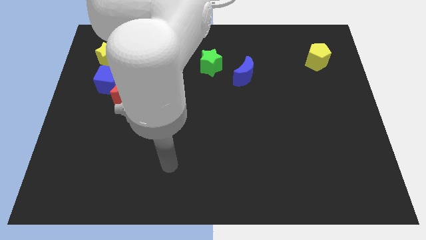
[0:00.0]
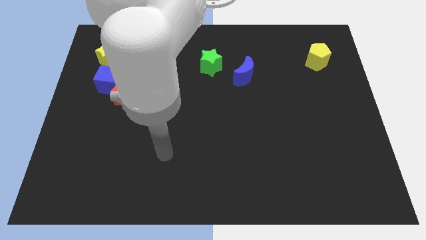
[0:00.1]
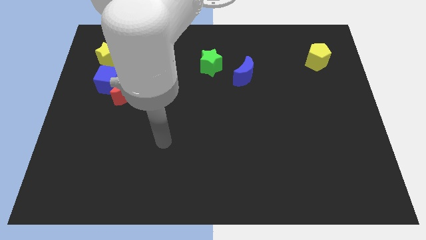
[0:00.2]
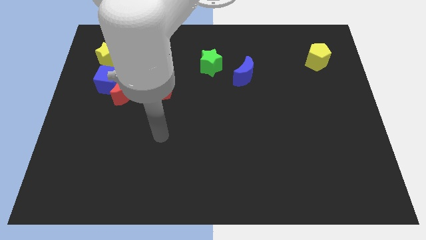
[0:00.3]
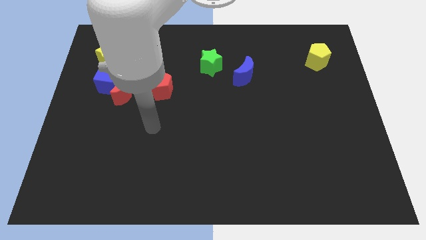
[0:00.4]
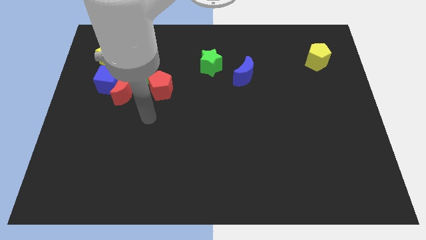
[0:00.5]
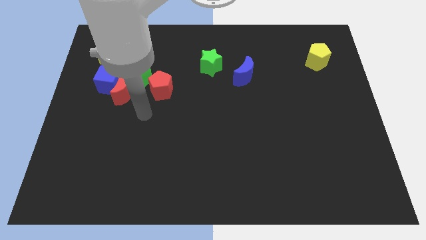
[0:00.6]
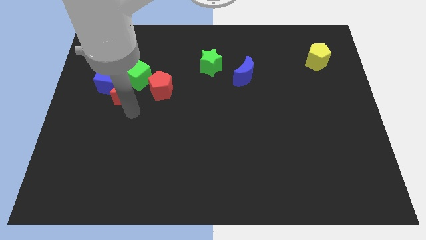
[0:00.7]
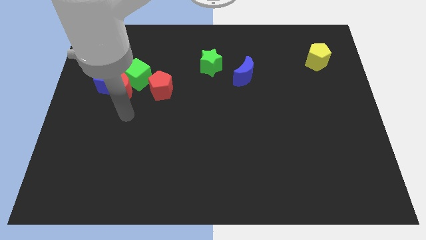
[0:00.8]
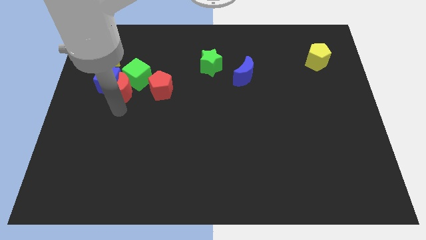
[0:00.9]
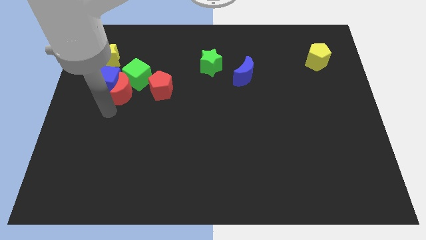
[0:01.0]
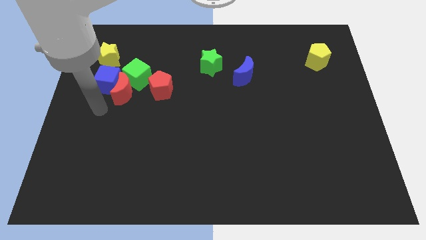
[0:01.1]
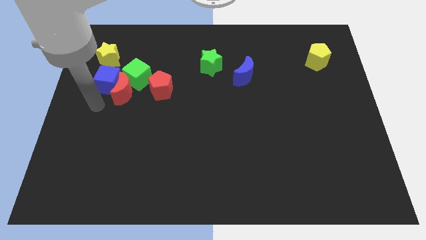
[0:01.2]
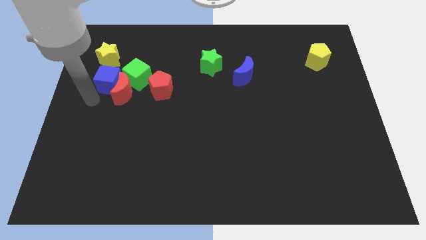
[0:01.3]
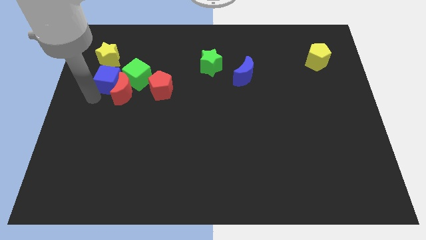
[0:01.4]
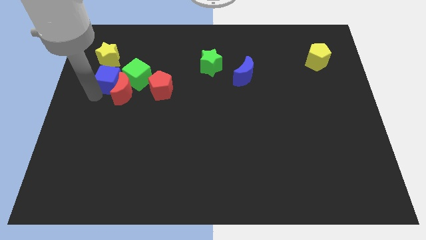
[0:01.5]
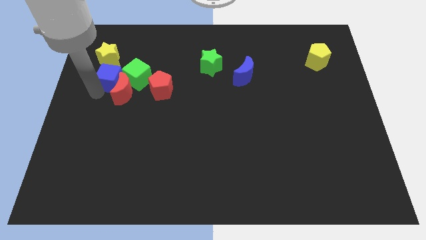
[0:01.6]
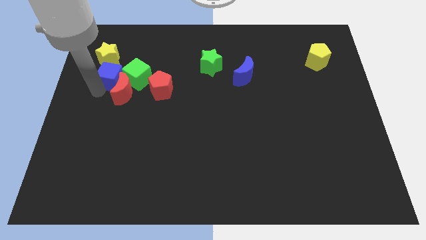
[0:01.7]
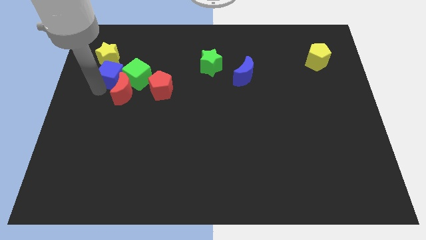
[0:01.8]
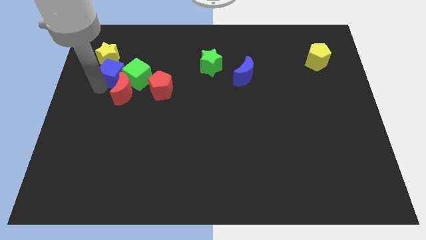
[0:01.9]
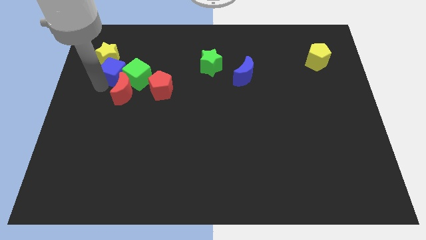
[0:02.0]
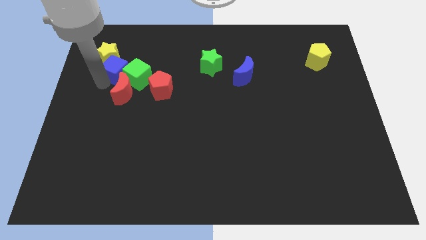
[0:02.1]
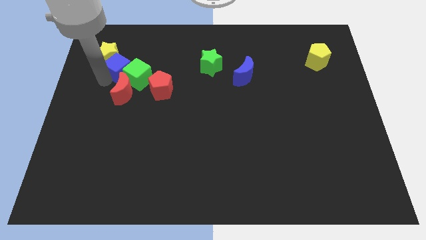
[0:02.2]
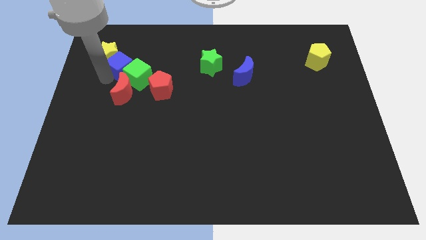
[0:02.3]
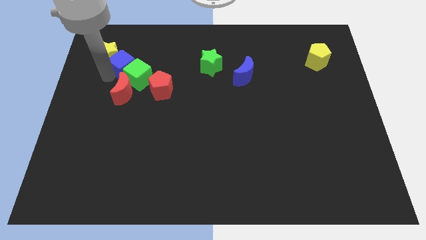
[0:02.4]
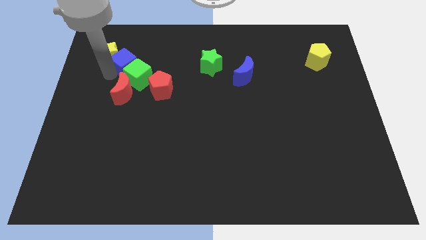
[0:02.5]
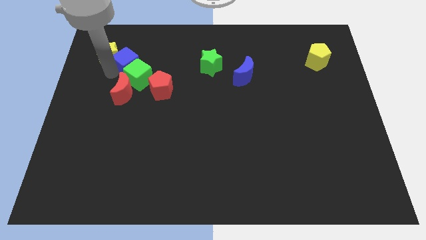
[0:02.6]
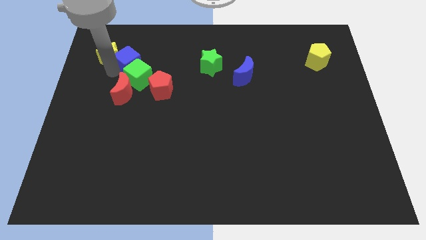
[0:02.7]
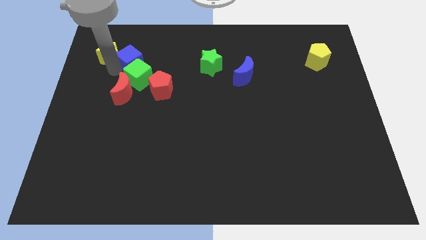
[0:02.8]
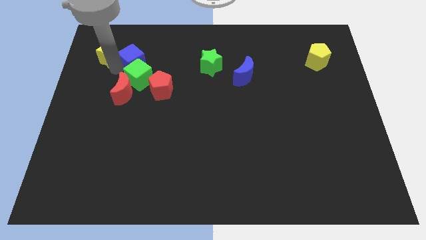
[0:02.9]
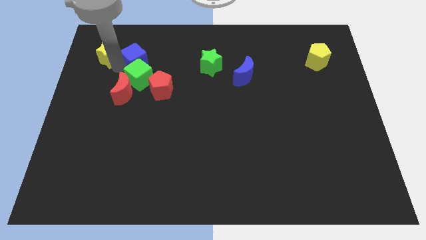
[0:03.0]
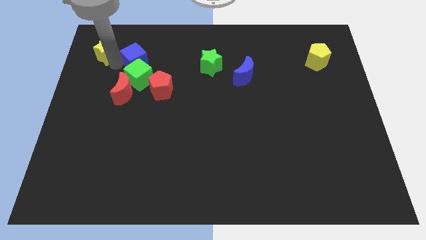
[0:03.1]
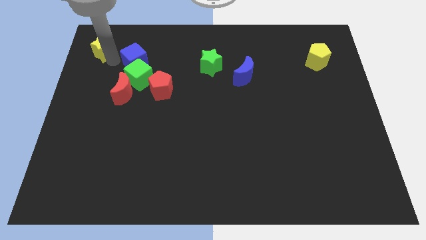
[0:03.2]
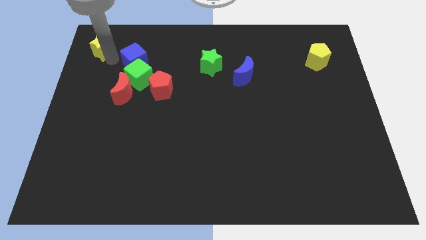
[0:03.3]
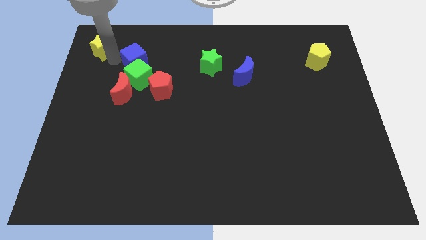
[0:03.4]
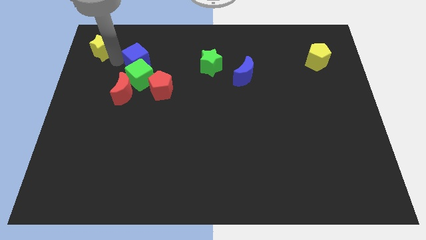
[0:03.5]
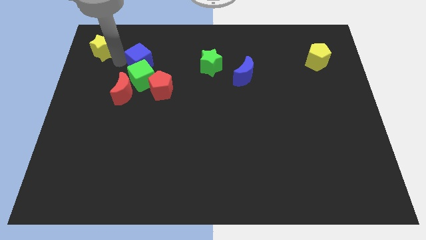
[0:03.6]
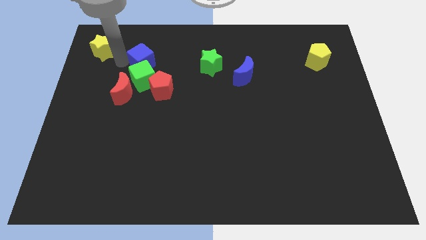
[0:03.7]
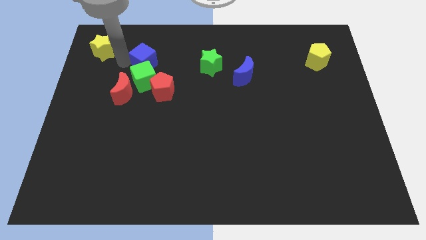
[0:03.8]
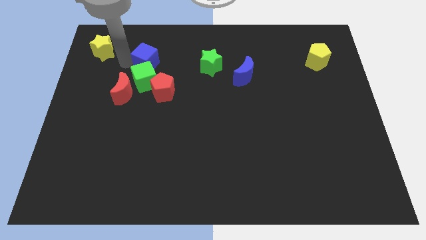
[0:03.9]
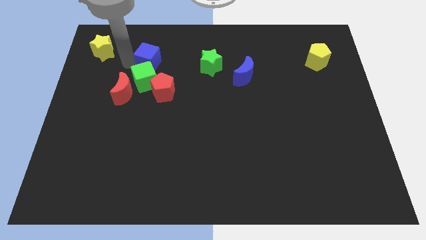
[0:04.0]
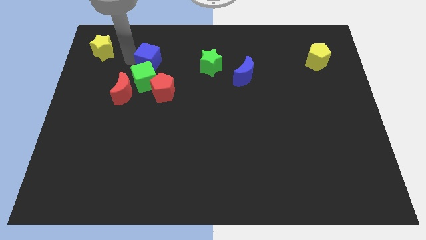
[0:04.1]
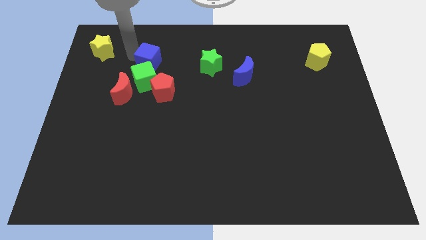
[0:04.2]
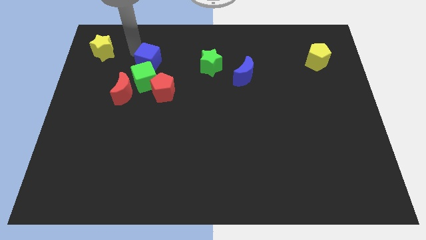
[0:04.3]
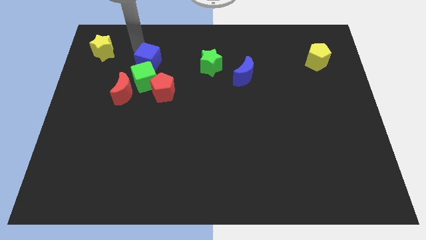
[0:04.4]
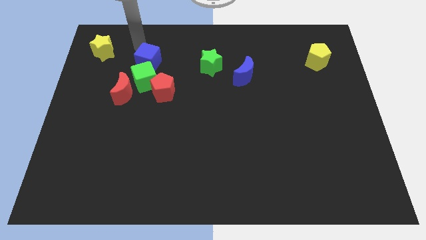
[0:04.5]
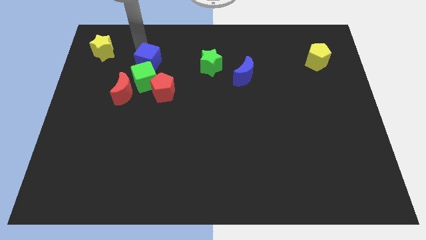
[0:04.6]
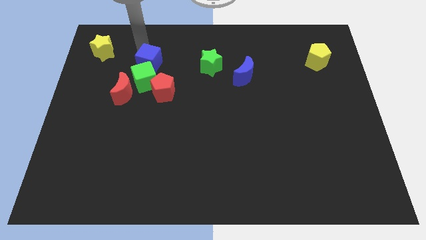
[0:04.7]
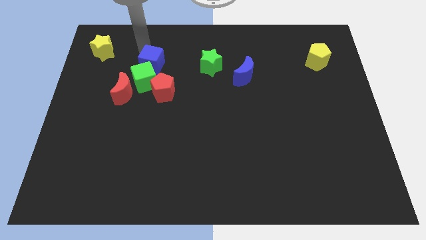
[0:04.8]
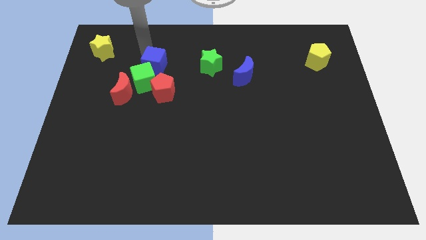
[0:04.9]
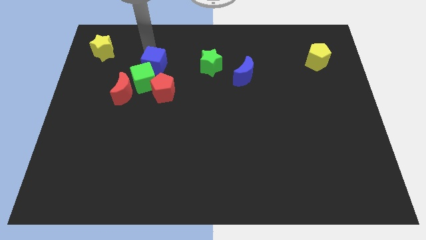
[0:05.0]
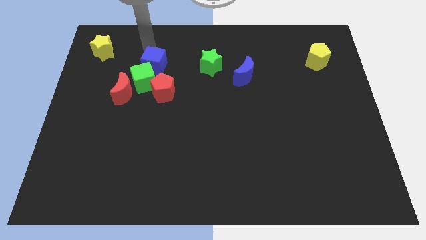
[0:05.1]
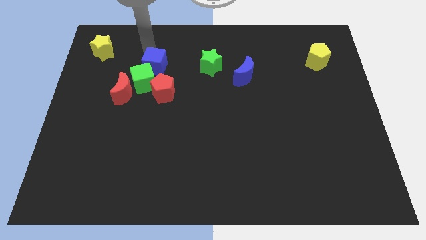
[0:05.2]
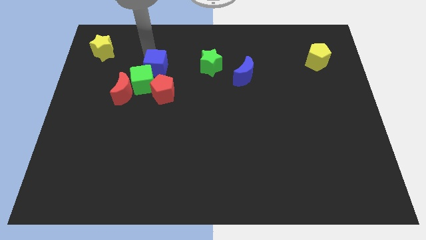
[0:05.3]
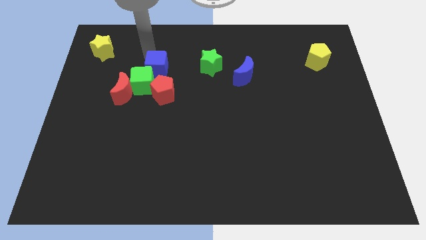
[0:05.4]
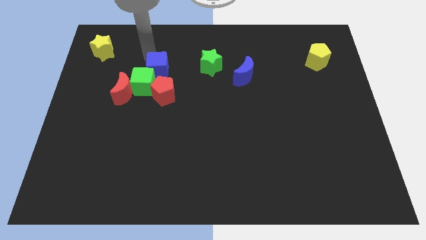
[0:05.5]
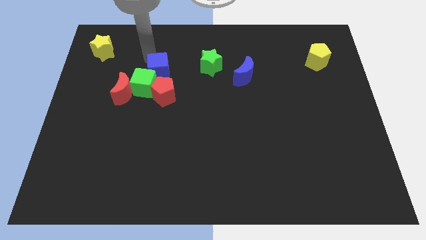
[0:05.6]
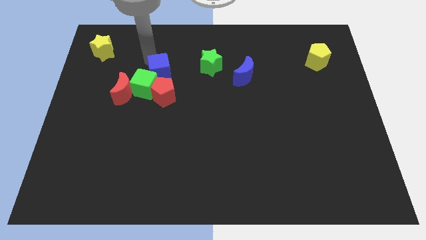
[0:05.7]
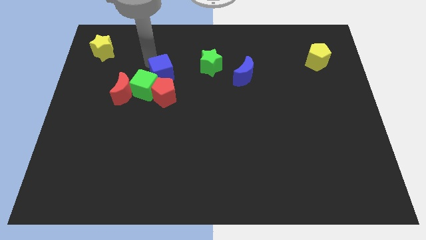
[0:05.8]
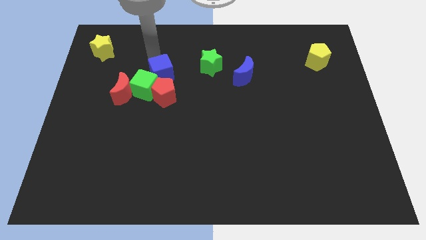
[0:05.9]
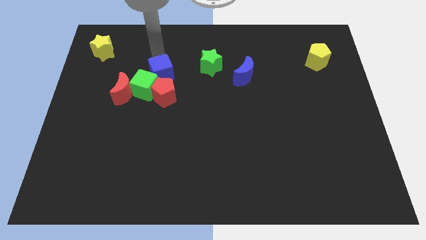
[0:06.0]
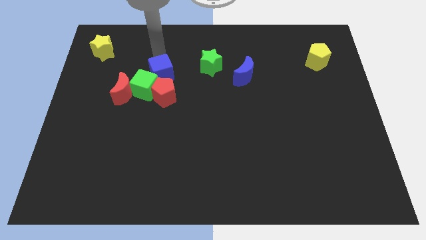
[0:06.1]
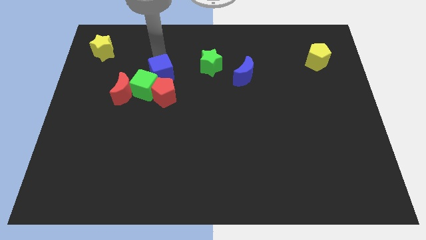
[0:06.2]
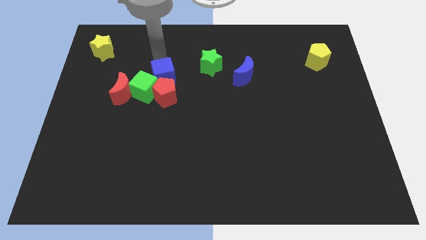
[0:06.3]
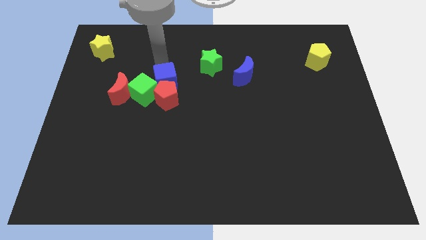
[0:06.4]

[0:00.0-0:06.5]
put the blue cube close to the red pentagon

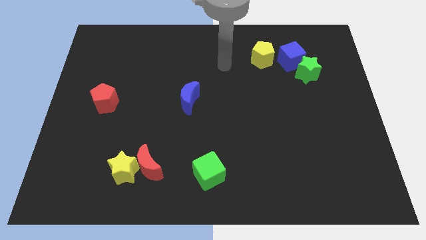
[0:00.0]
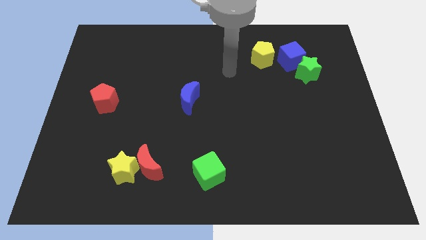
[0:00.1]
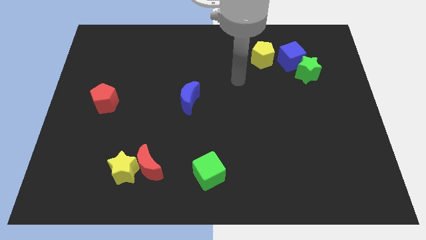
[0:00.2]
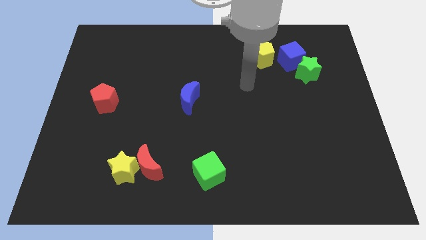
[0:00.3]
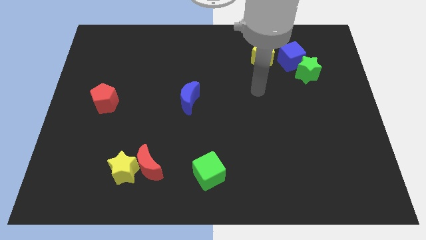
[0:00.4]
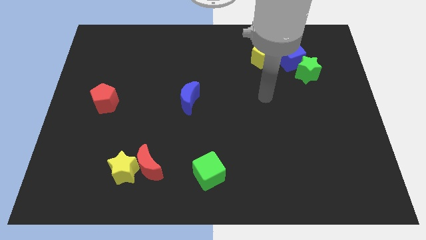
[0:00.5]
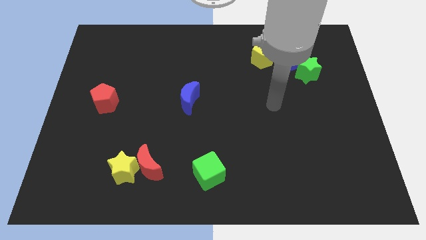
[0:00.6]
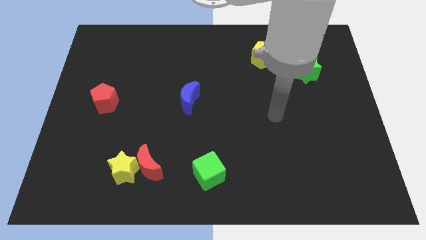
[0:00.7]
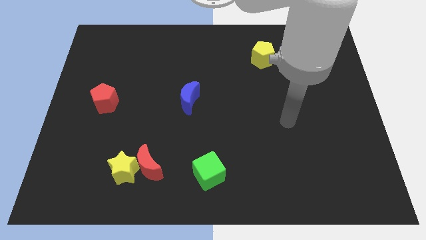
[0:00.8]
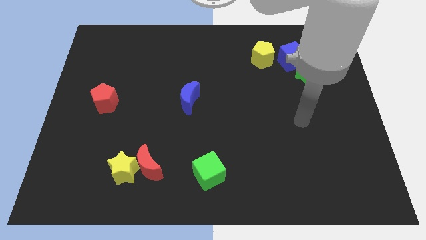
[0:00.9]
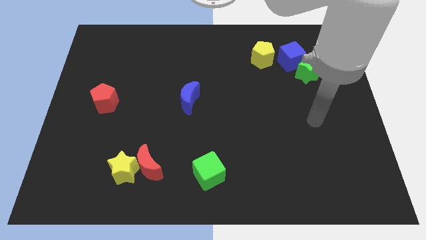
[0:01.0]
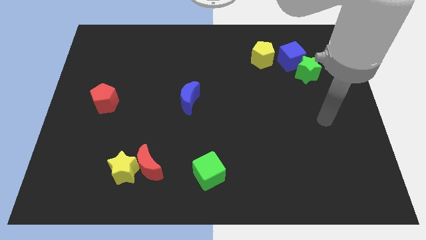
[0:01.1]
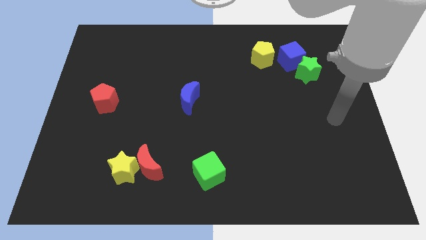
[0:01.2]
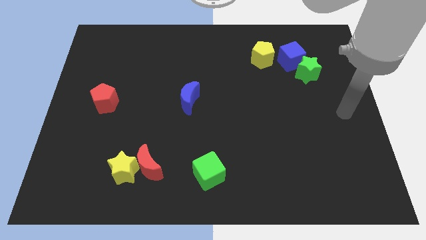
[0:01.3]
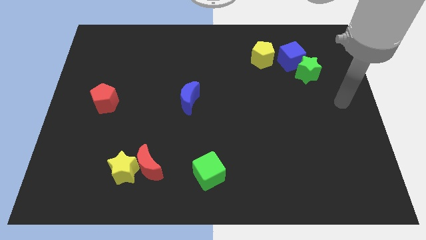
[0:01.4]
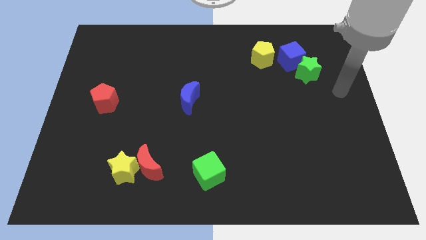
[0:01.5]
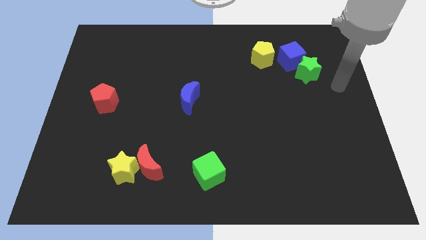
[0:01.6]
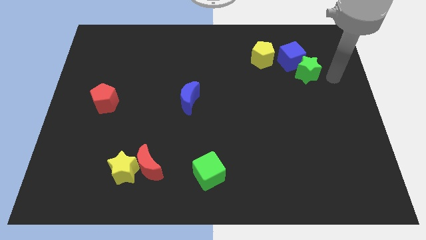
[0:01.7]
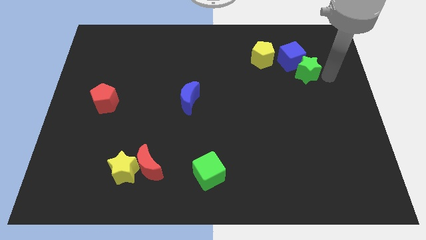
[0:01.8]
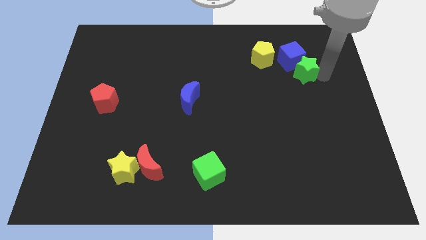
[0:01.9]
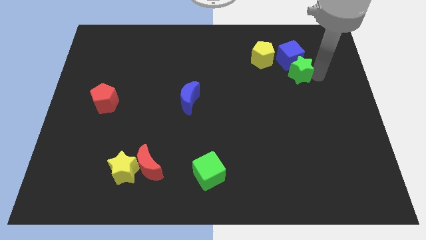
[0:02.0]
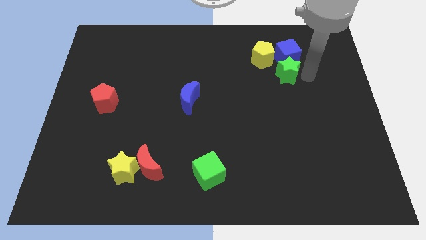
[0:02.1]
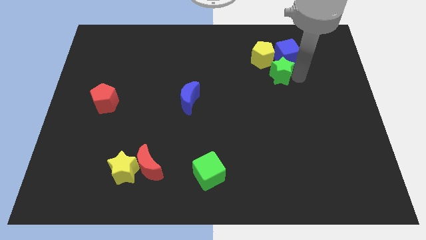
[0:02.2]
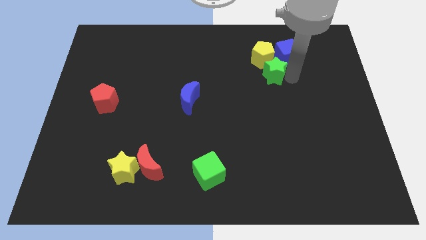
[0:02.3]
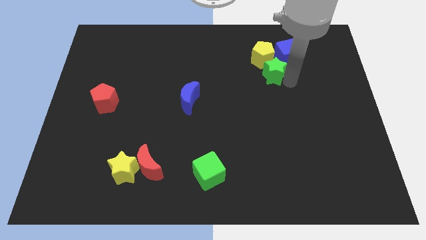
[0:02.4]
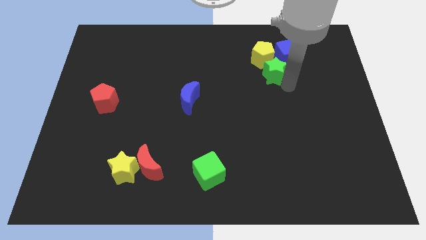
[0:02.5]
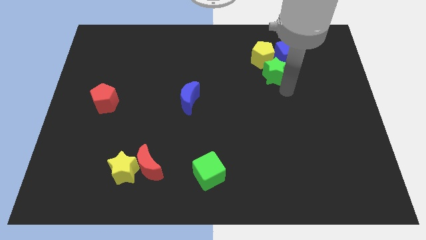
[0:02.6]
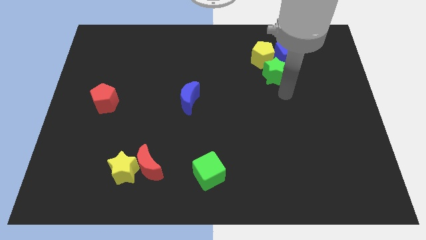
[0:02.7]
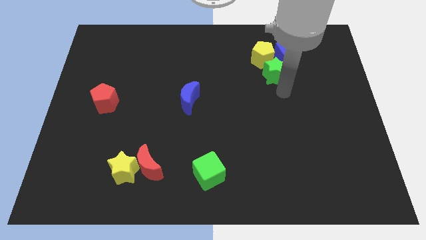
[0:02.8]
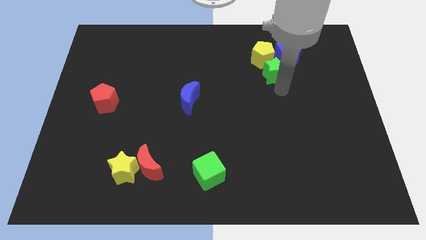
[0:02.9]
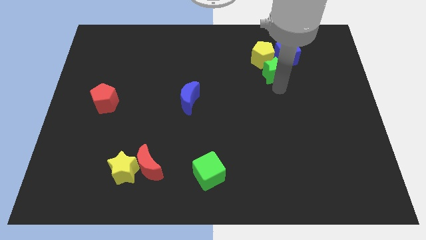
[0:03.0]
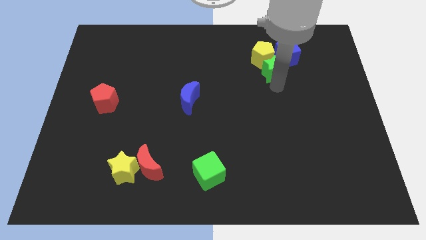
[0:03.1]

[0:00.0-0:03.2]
slide the green star towards the yellow pentagon
